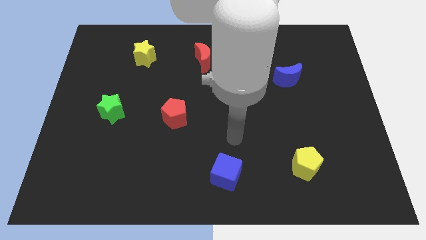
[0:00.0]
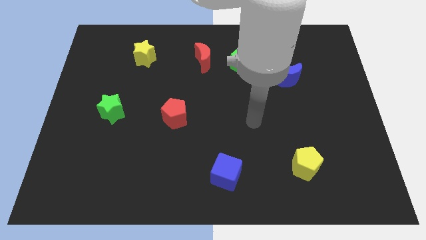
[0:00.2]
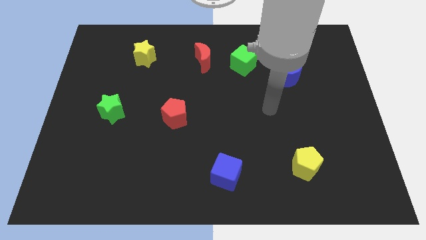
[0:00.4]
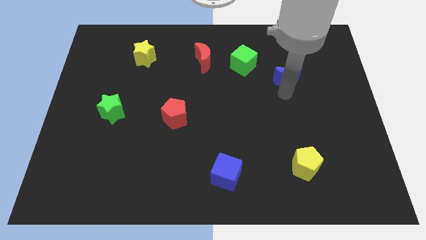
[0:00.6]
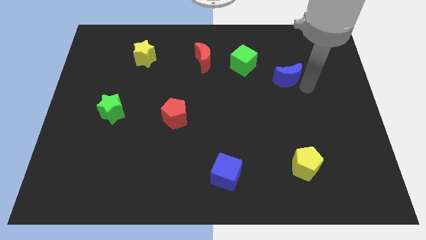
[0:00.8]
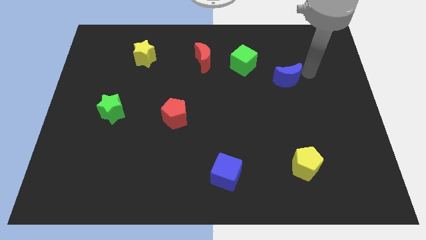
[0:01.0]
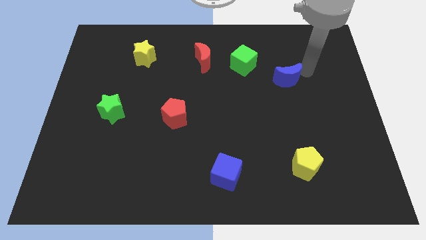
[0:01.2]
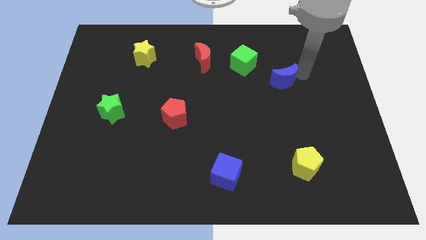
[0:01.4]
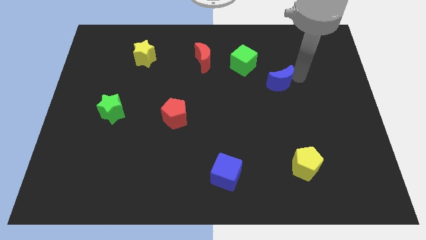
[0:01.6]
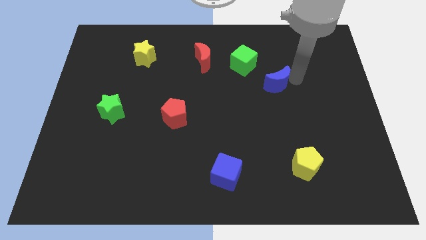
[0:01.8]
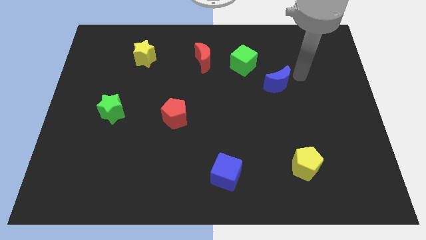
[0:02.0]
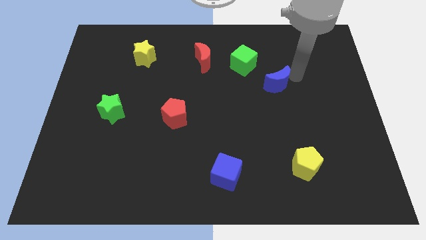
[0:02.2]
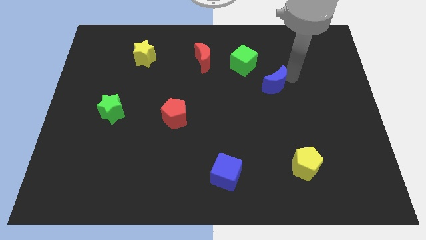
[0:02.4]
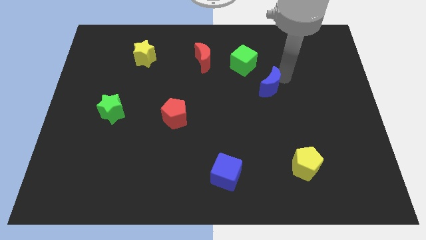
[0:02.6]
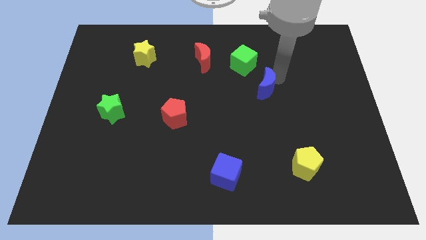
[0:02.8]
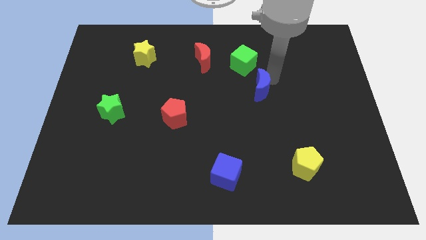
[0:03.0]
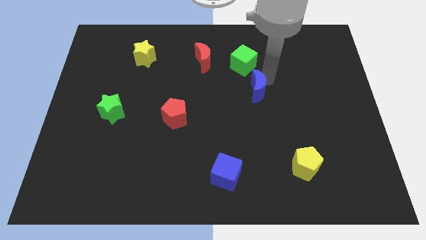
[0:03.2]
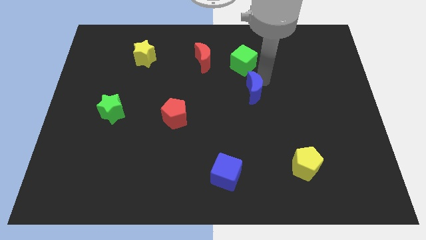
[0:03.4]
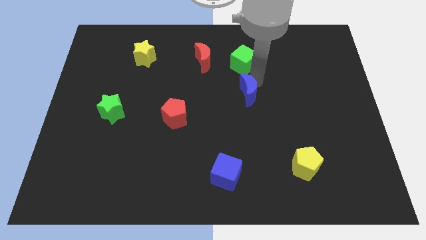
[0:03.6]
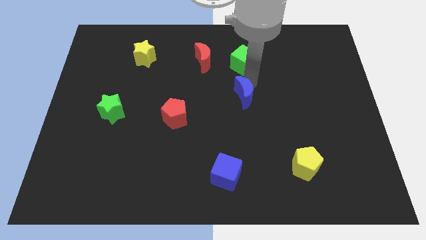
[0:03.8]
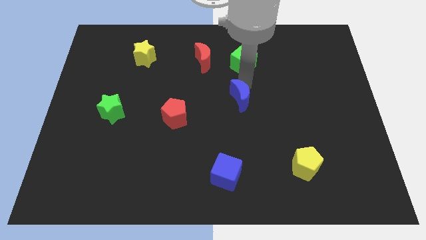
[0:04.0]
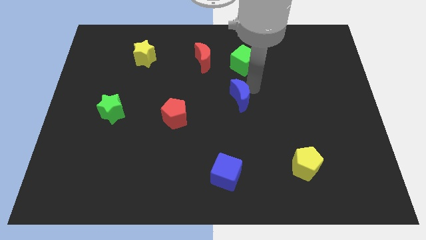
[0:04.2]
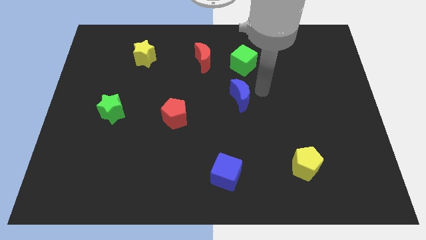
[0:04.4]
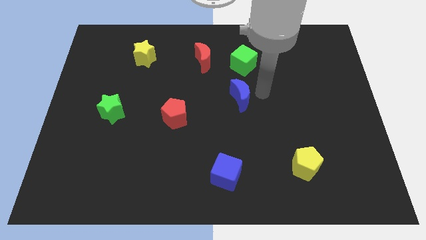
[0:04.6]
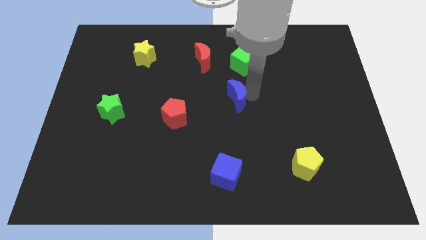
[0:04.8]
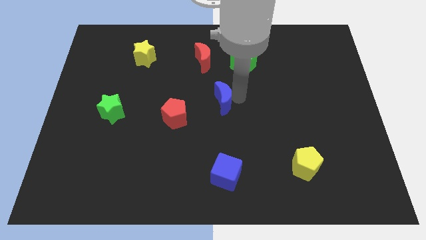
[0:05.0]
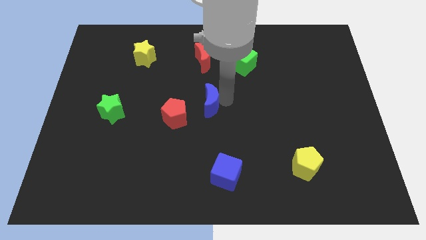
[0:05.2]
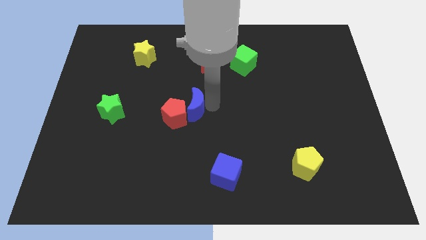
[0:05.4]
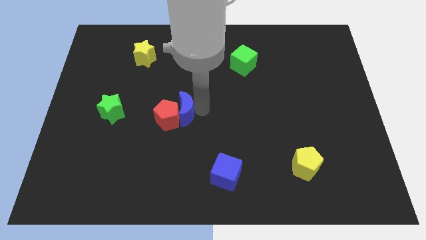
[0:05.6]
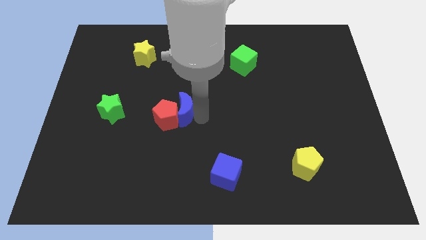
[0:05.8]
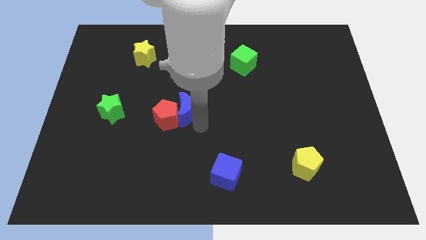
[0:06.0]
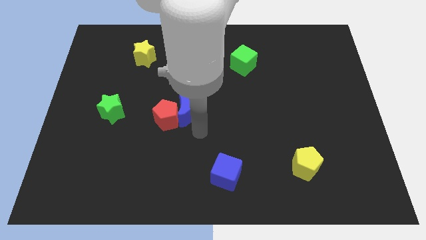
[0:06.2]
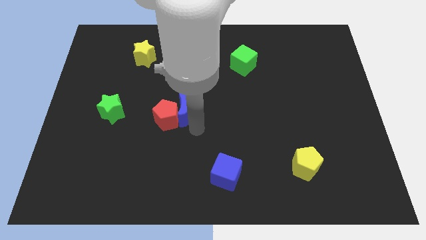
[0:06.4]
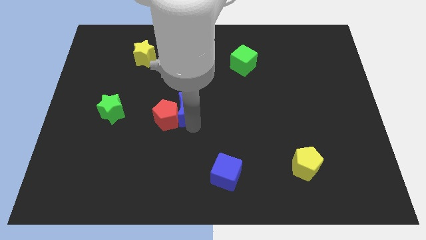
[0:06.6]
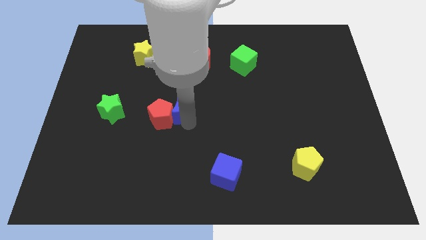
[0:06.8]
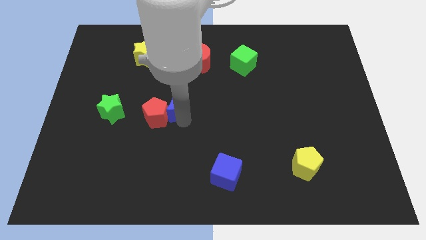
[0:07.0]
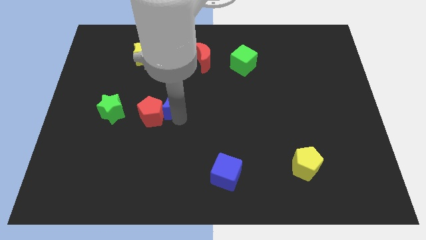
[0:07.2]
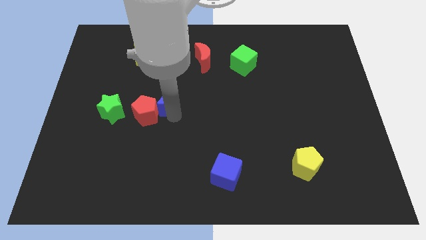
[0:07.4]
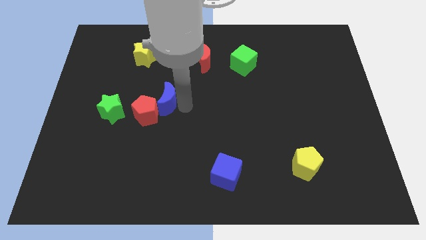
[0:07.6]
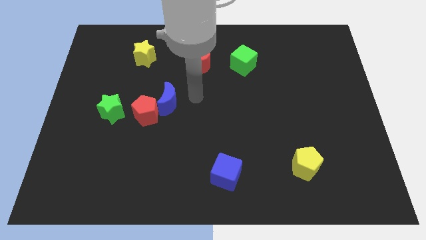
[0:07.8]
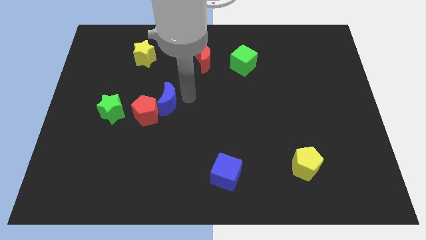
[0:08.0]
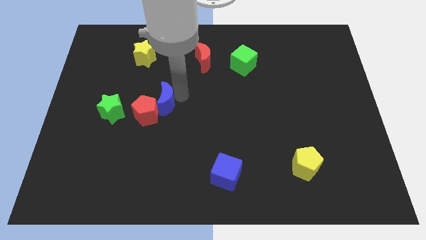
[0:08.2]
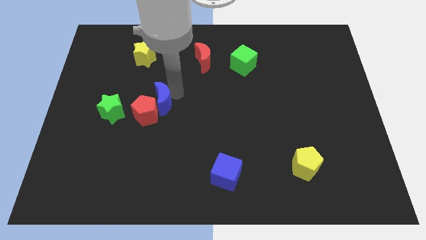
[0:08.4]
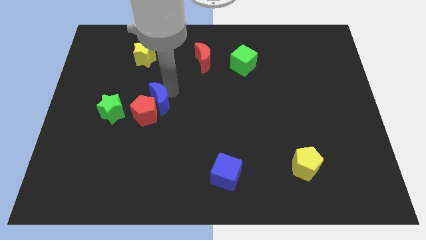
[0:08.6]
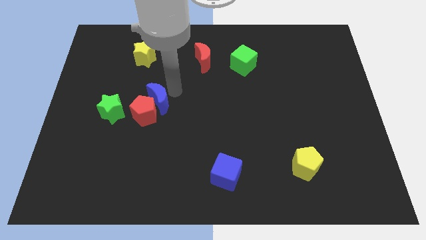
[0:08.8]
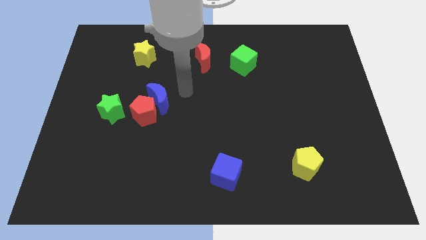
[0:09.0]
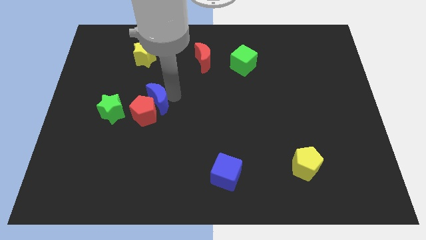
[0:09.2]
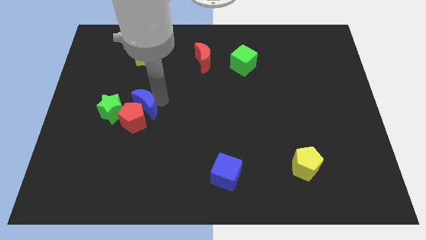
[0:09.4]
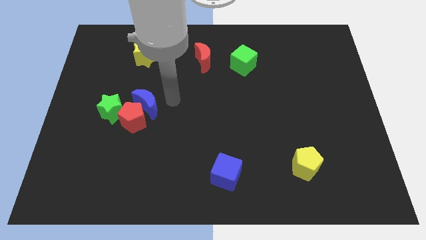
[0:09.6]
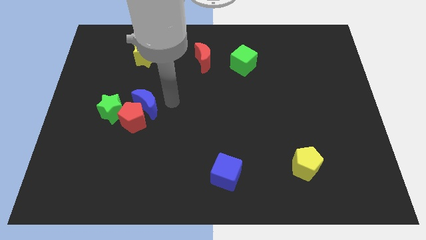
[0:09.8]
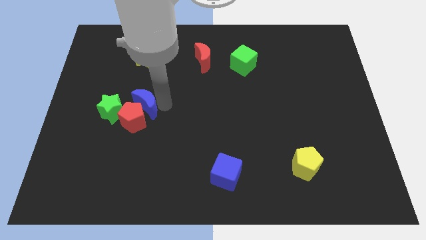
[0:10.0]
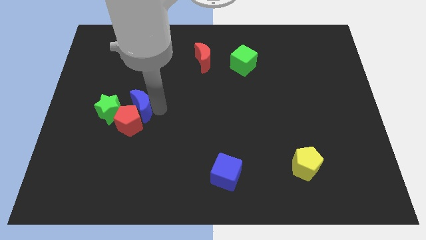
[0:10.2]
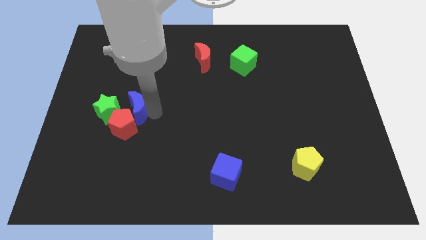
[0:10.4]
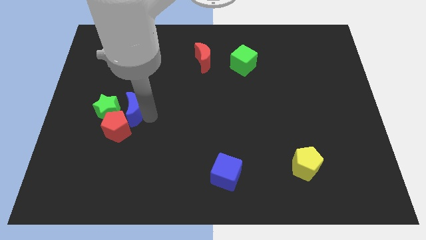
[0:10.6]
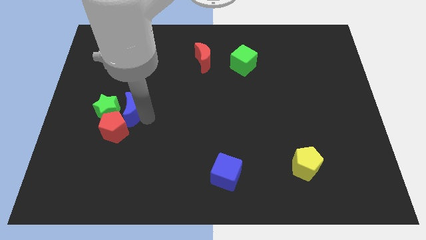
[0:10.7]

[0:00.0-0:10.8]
slide the blue moon towards the green star

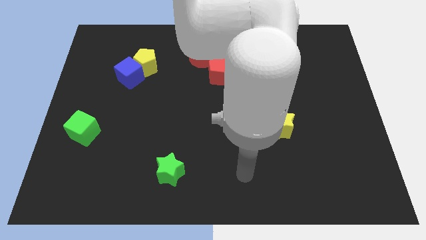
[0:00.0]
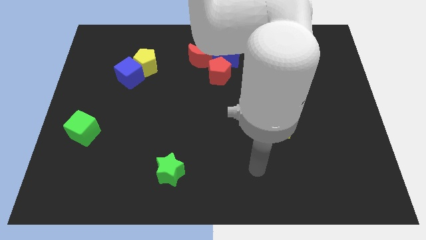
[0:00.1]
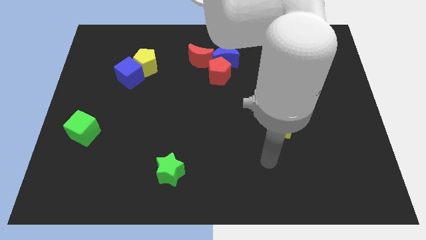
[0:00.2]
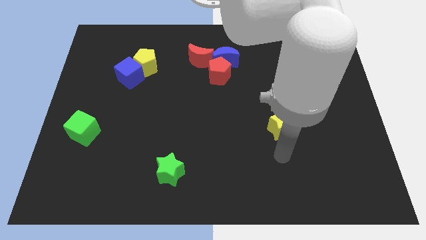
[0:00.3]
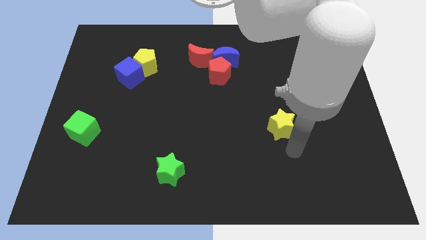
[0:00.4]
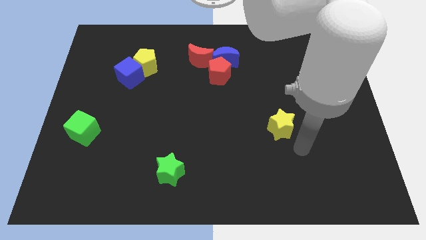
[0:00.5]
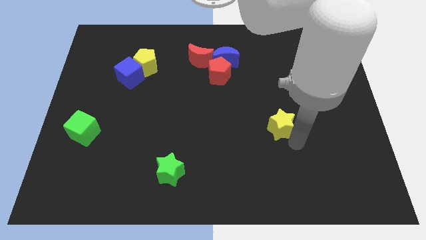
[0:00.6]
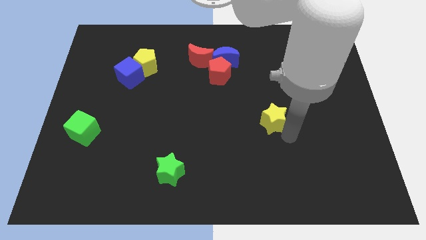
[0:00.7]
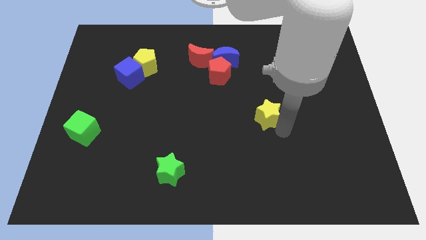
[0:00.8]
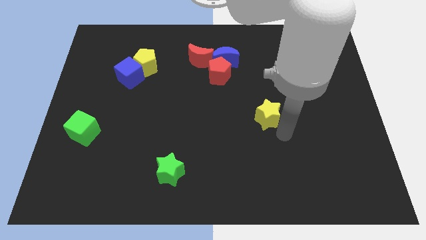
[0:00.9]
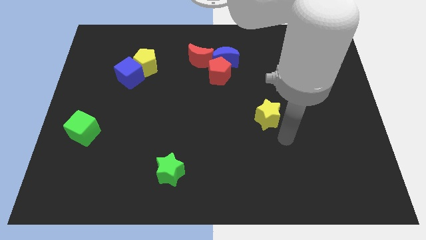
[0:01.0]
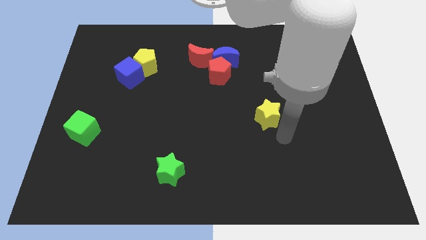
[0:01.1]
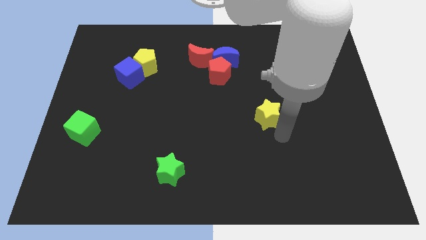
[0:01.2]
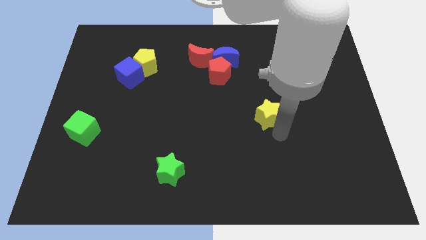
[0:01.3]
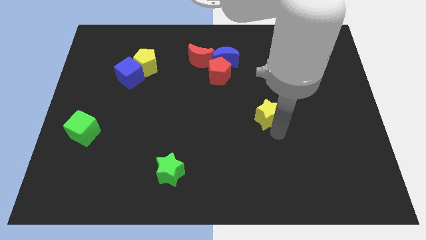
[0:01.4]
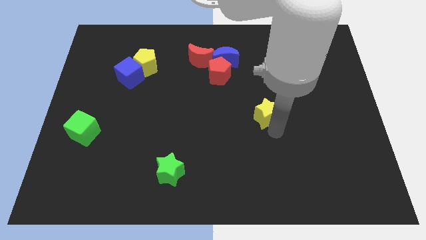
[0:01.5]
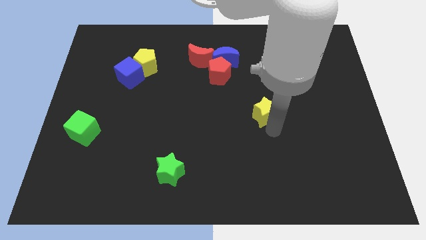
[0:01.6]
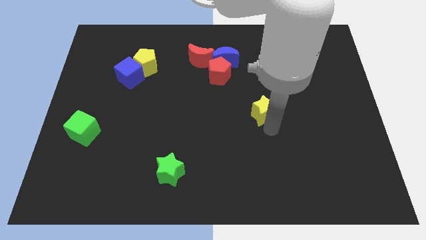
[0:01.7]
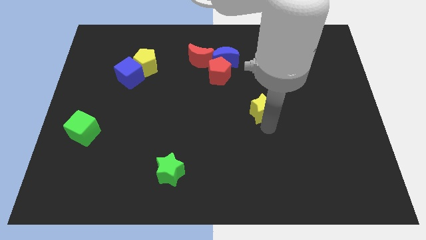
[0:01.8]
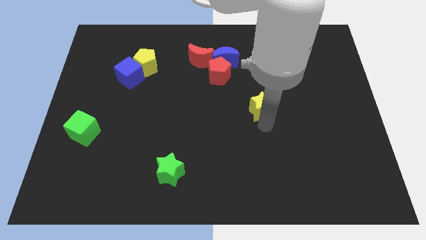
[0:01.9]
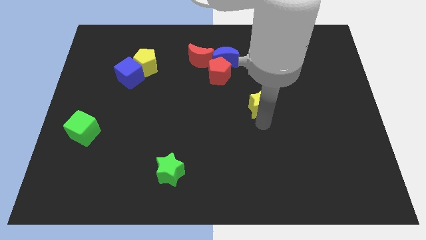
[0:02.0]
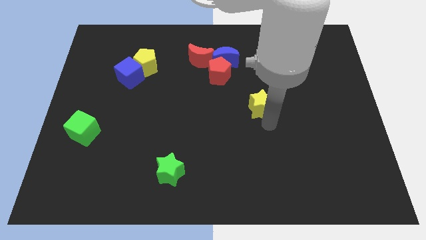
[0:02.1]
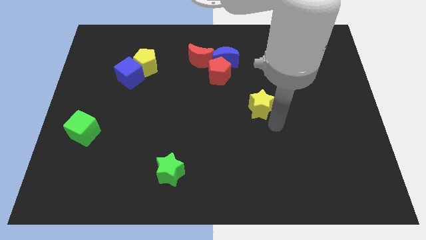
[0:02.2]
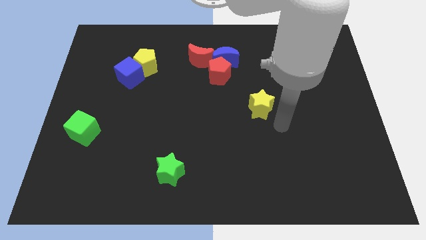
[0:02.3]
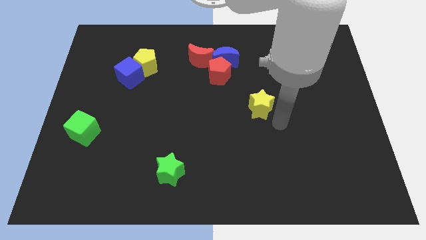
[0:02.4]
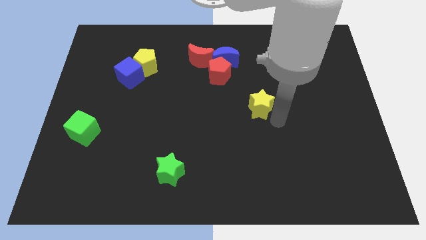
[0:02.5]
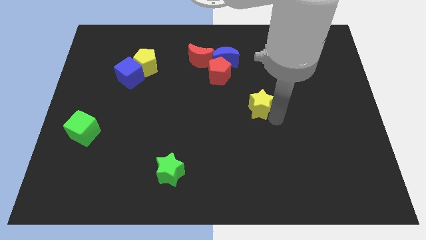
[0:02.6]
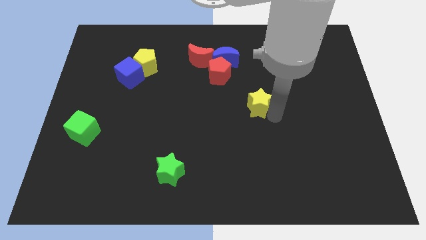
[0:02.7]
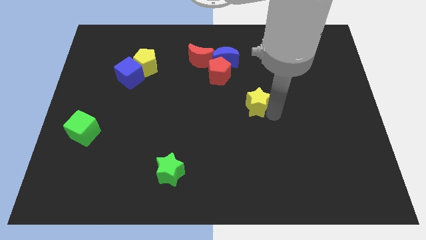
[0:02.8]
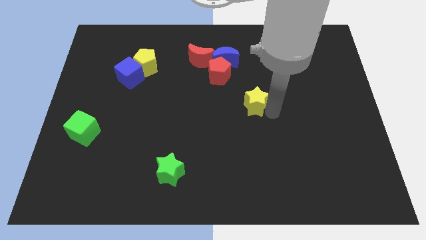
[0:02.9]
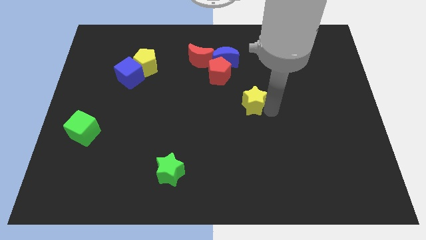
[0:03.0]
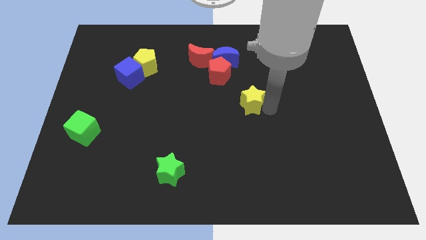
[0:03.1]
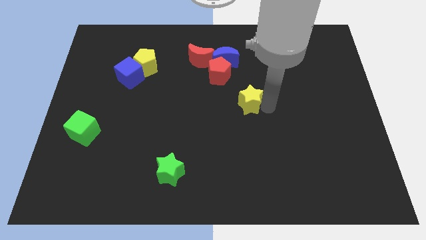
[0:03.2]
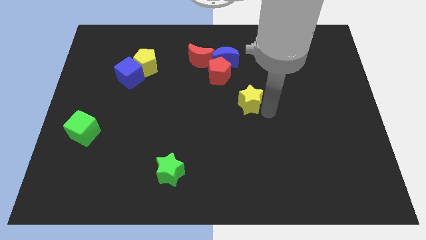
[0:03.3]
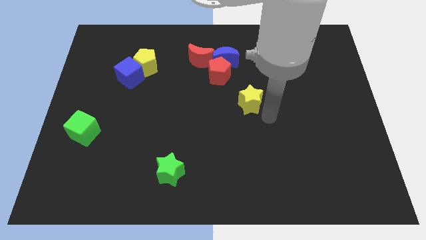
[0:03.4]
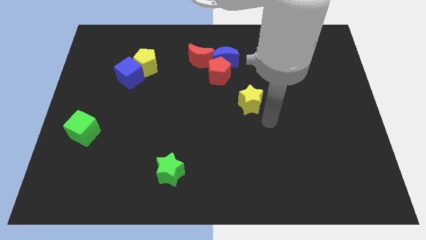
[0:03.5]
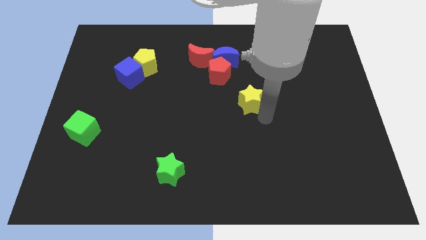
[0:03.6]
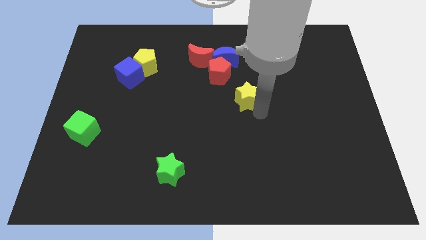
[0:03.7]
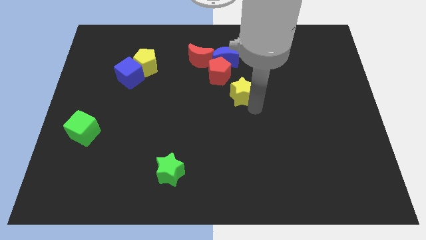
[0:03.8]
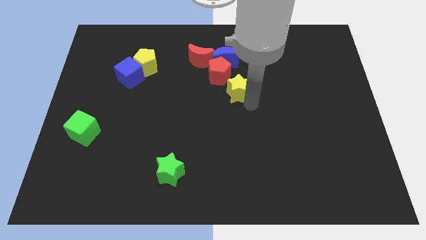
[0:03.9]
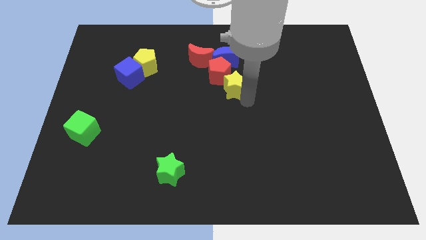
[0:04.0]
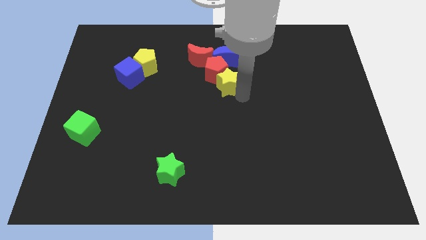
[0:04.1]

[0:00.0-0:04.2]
slide the yellow star close to the red pentagon
